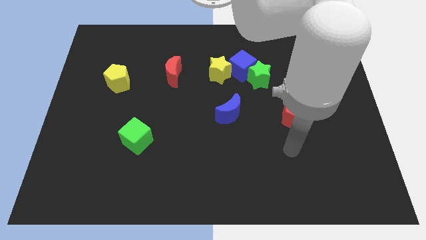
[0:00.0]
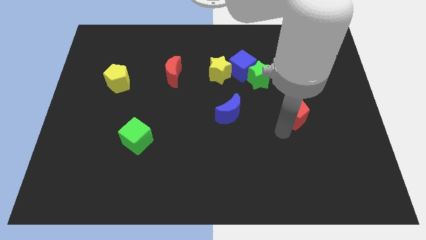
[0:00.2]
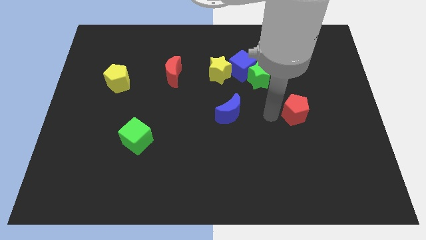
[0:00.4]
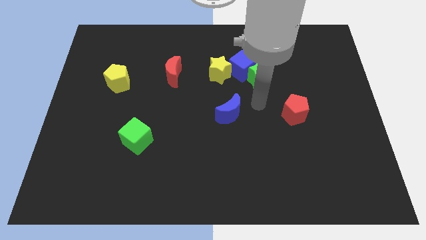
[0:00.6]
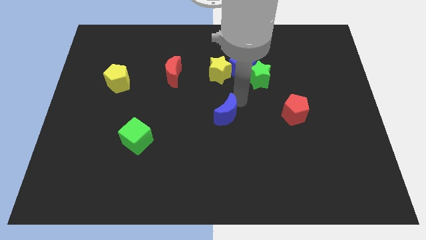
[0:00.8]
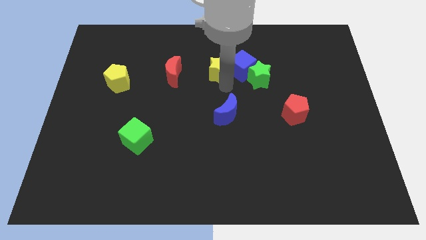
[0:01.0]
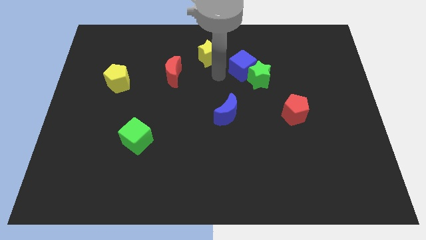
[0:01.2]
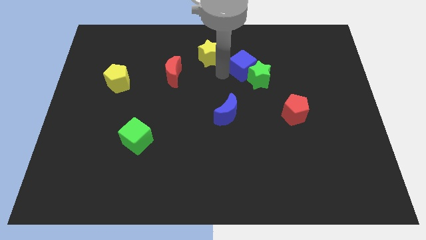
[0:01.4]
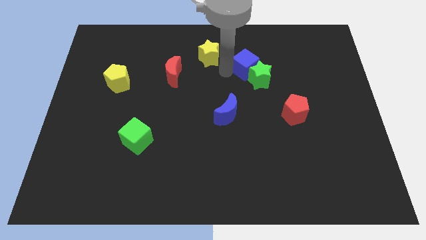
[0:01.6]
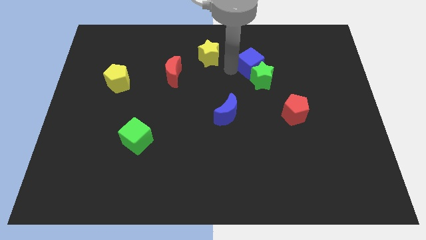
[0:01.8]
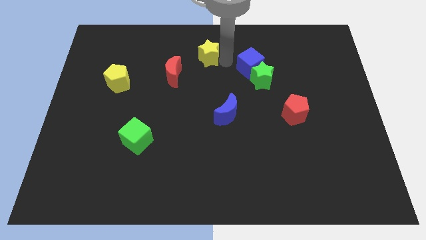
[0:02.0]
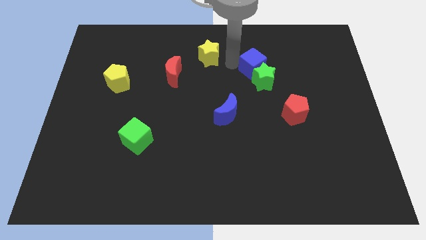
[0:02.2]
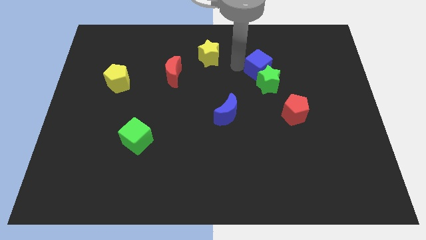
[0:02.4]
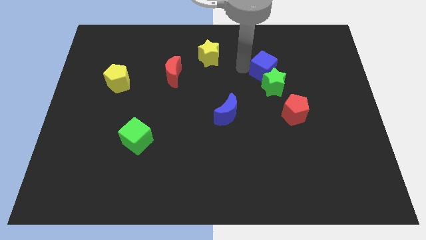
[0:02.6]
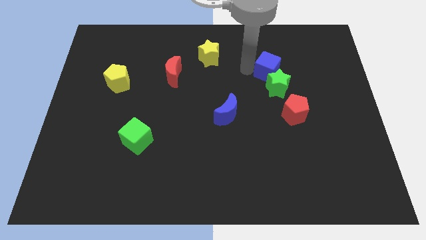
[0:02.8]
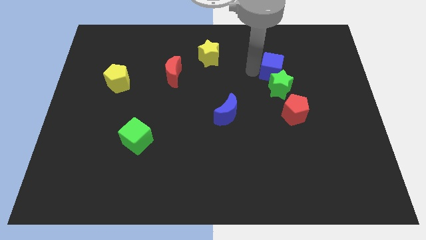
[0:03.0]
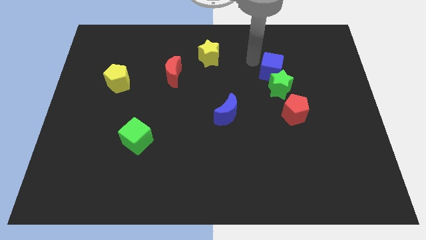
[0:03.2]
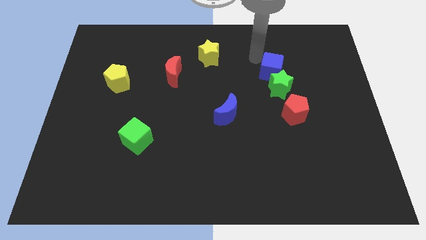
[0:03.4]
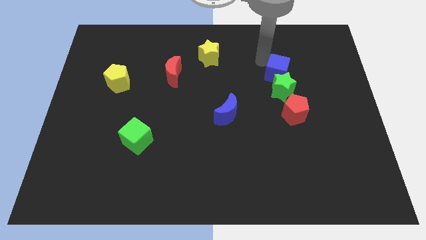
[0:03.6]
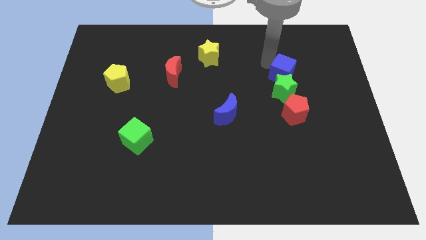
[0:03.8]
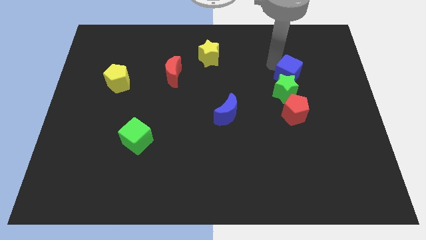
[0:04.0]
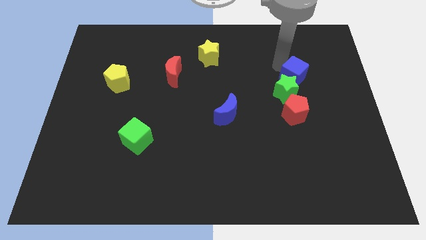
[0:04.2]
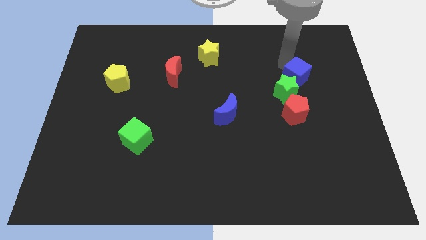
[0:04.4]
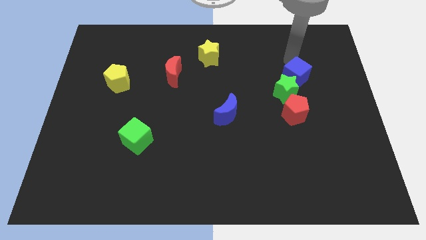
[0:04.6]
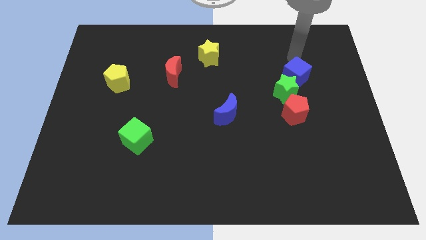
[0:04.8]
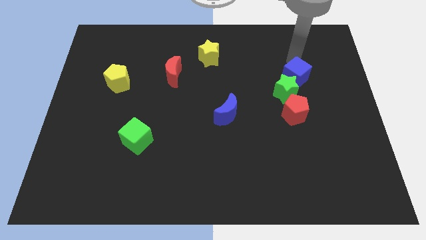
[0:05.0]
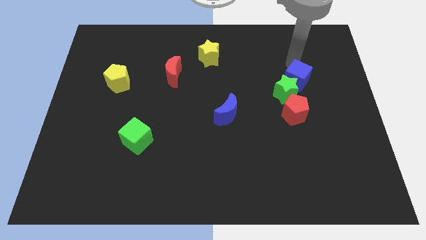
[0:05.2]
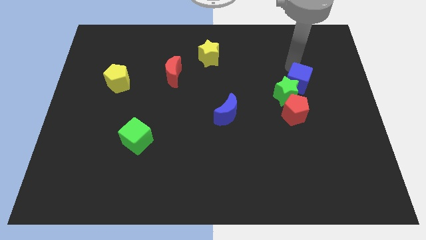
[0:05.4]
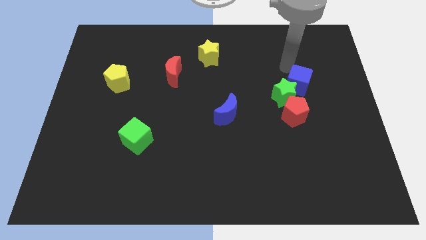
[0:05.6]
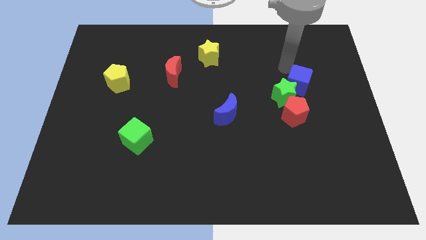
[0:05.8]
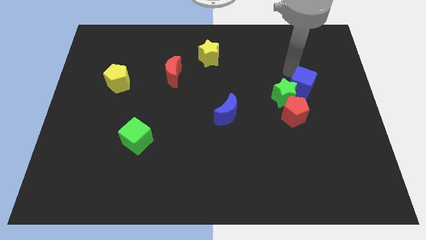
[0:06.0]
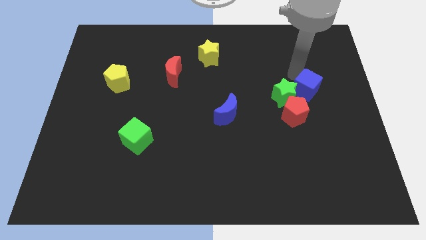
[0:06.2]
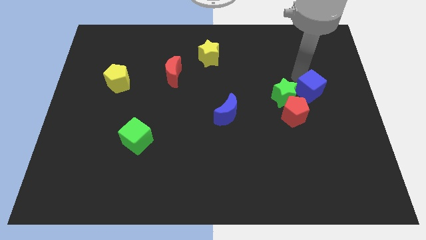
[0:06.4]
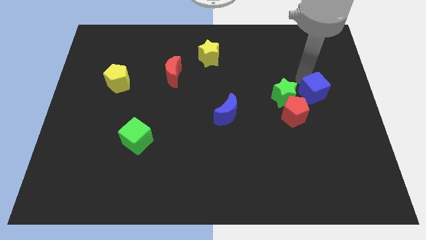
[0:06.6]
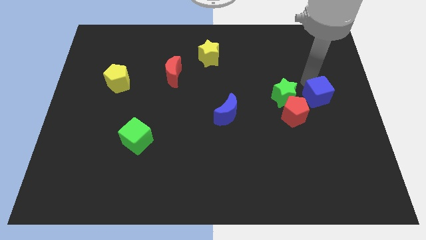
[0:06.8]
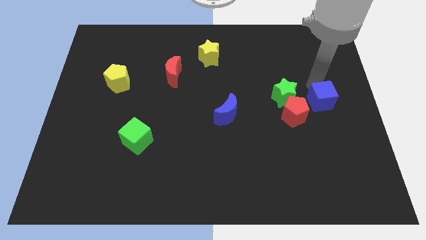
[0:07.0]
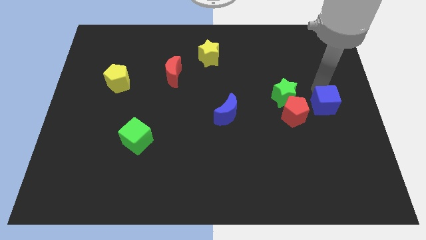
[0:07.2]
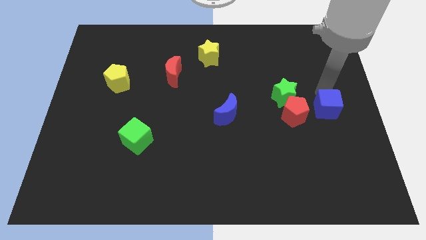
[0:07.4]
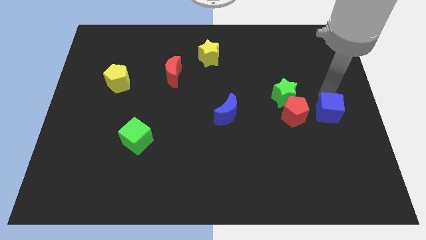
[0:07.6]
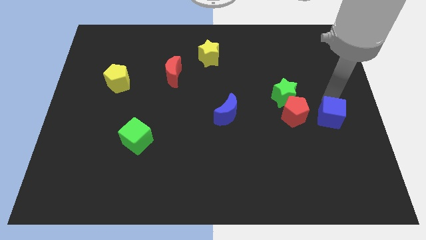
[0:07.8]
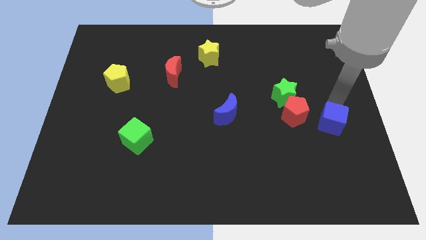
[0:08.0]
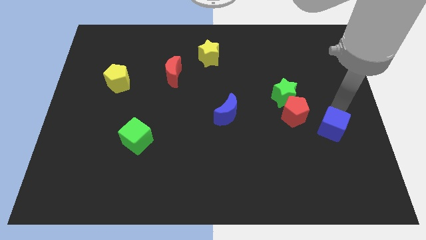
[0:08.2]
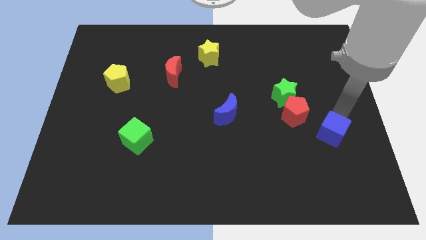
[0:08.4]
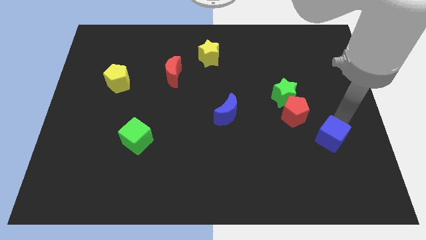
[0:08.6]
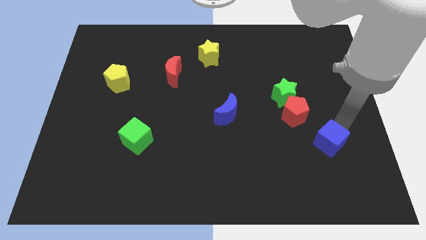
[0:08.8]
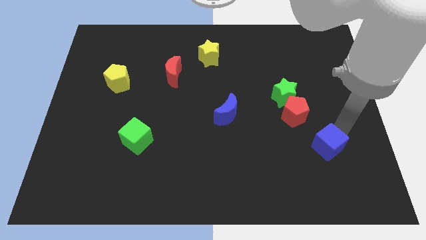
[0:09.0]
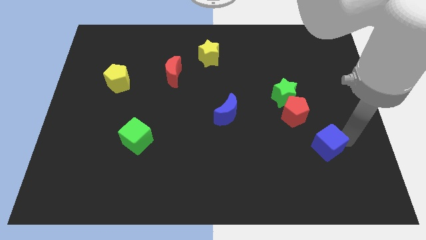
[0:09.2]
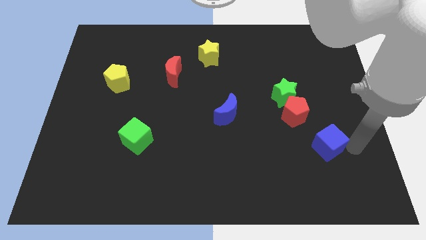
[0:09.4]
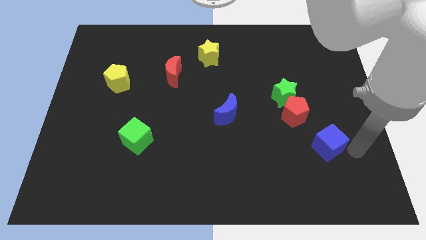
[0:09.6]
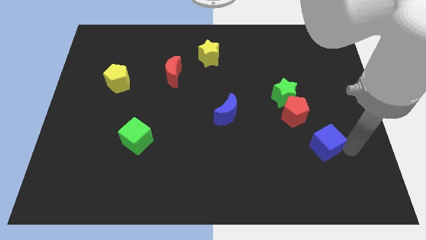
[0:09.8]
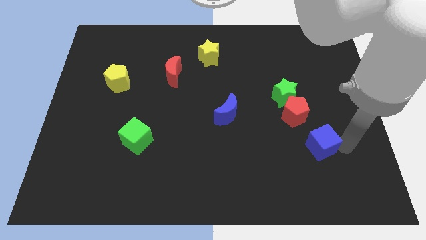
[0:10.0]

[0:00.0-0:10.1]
push the blue cube below the red pentagon

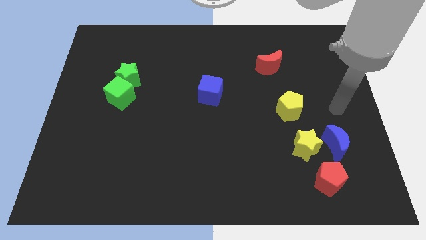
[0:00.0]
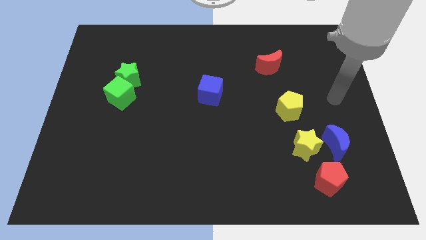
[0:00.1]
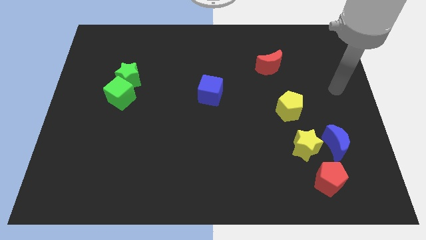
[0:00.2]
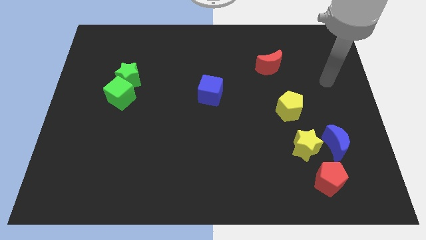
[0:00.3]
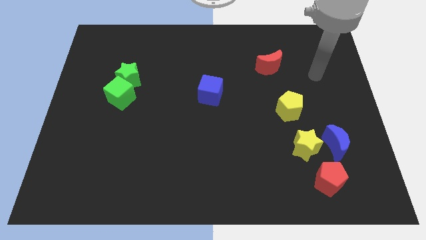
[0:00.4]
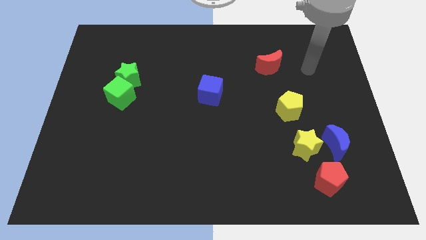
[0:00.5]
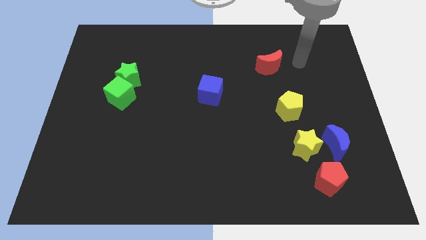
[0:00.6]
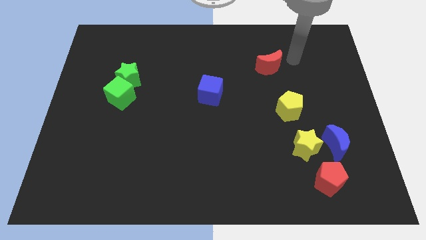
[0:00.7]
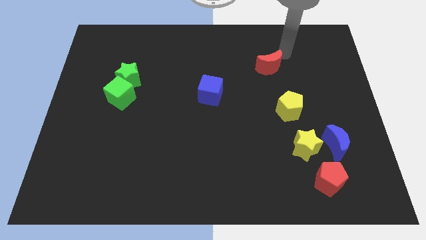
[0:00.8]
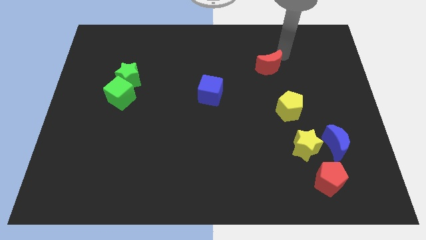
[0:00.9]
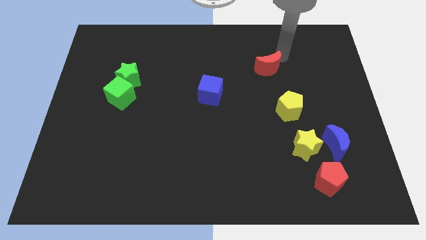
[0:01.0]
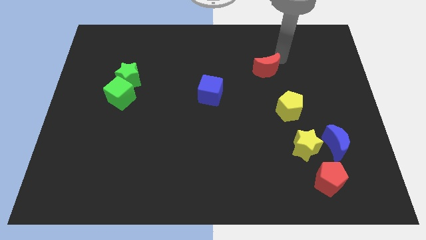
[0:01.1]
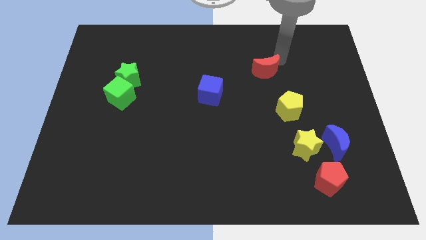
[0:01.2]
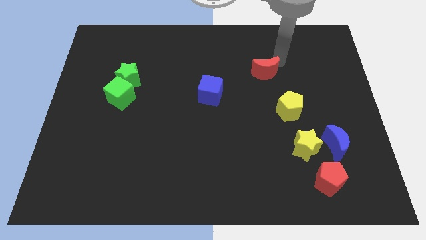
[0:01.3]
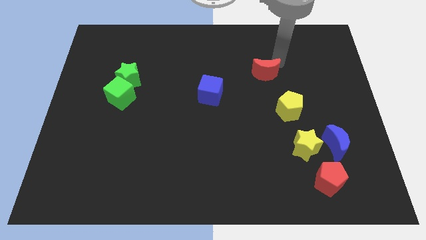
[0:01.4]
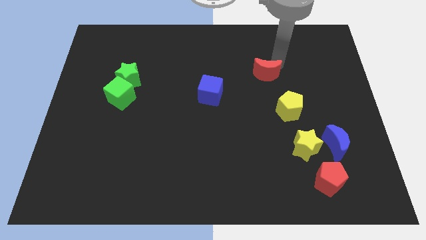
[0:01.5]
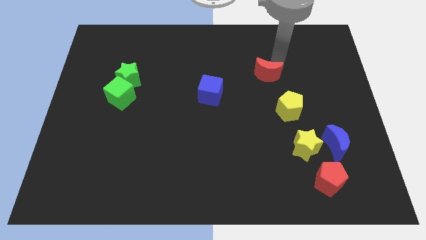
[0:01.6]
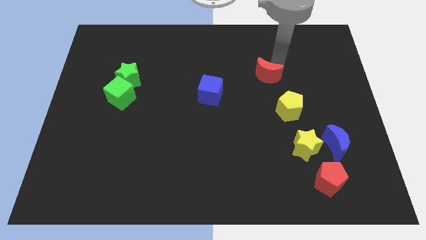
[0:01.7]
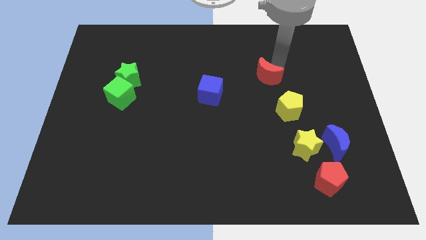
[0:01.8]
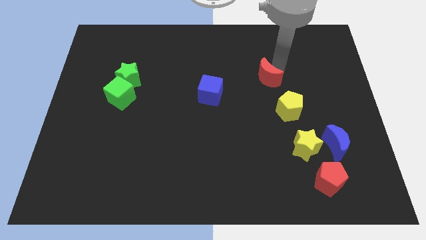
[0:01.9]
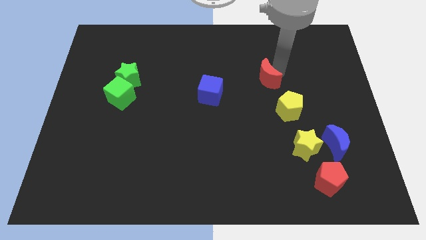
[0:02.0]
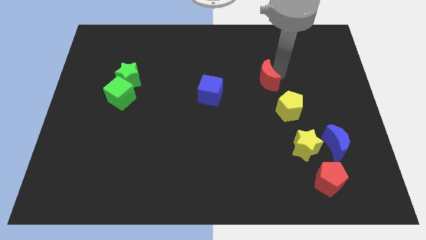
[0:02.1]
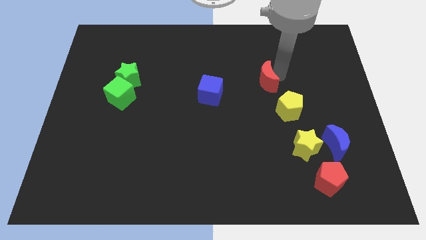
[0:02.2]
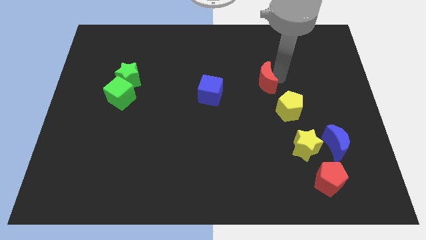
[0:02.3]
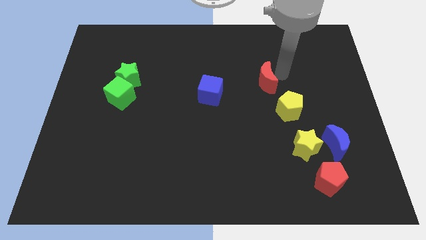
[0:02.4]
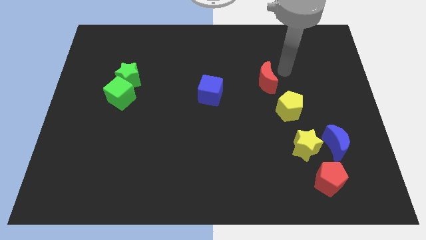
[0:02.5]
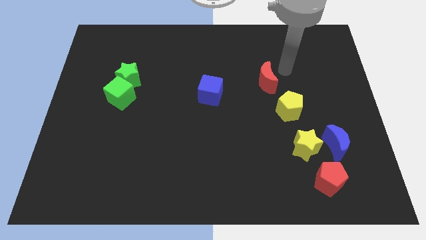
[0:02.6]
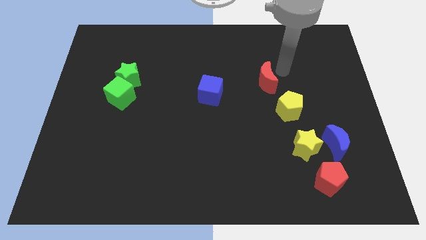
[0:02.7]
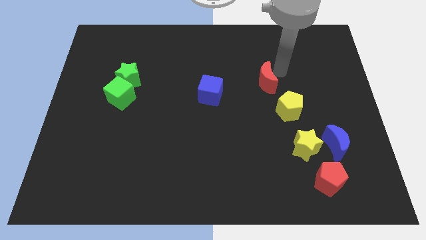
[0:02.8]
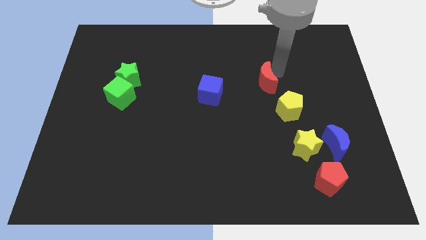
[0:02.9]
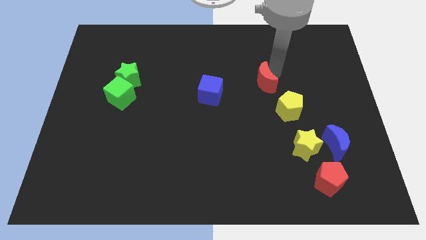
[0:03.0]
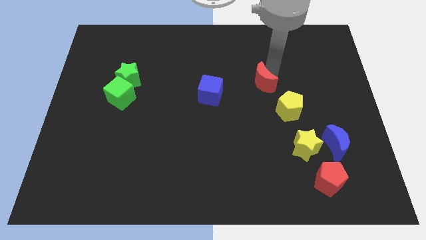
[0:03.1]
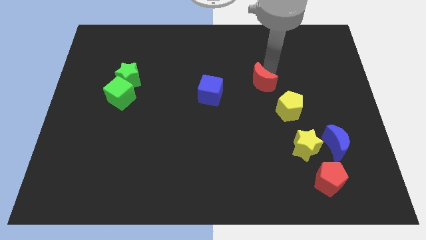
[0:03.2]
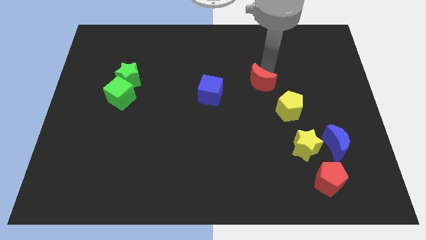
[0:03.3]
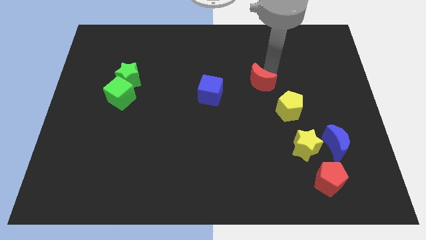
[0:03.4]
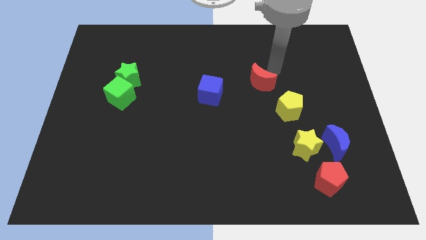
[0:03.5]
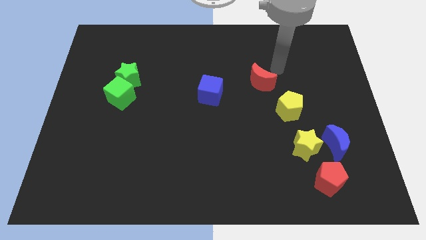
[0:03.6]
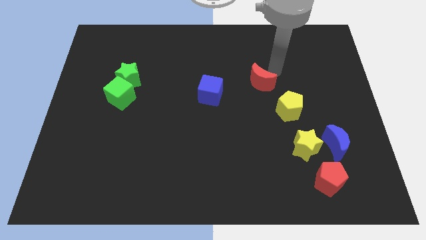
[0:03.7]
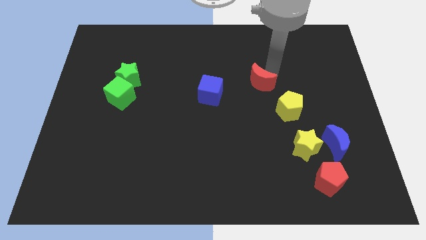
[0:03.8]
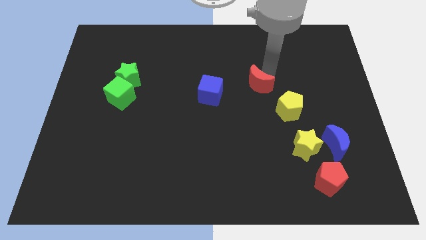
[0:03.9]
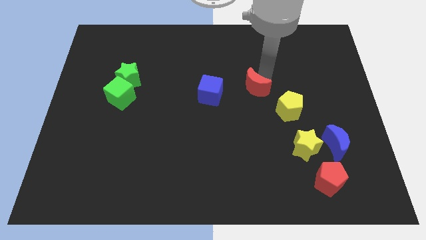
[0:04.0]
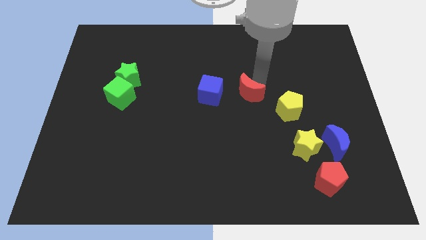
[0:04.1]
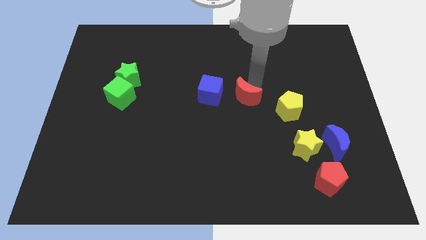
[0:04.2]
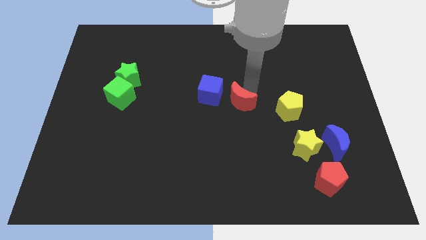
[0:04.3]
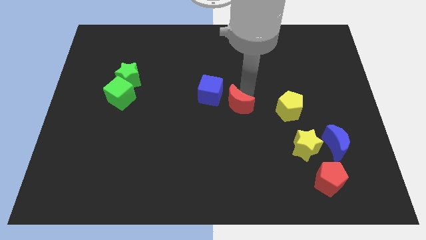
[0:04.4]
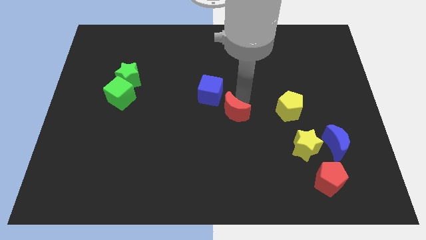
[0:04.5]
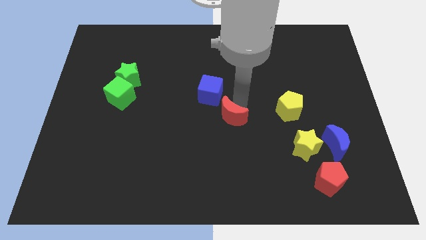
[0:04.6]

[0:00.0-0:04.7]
move the red moon to the bottom of the blue cube
